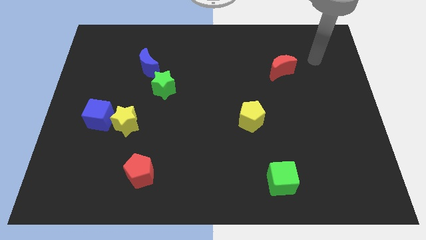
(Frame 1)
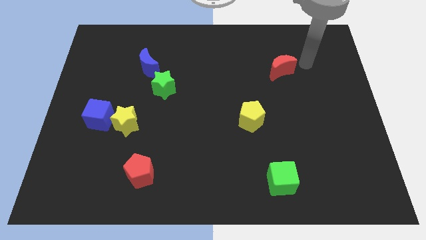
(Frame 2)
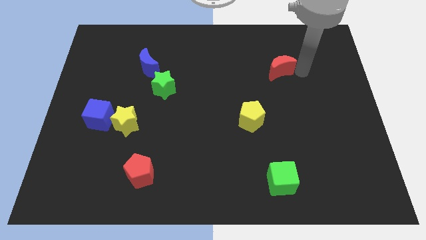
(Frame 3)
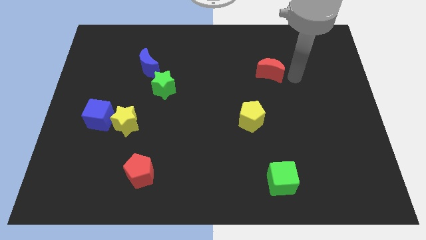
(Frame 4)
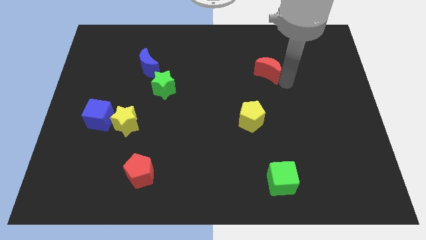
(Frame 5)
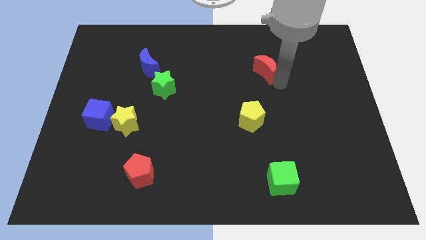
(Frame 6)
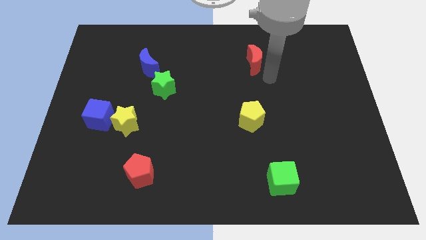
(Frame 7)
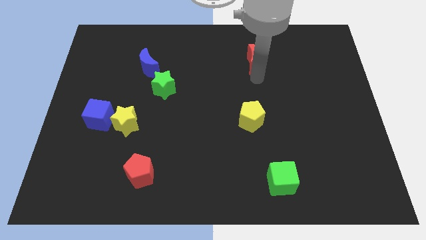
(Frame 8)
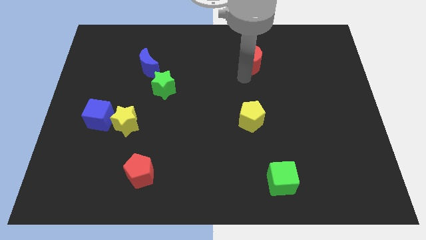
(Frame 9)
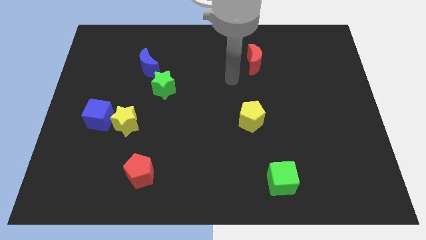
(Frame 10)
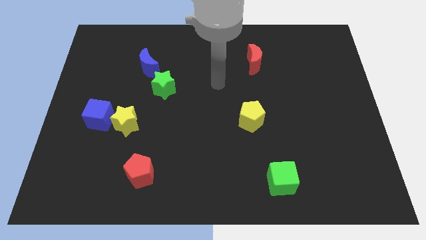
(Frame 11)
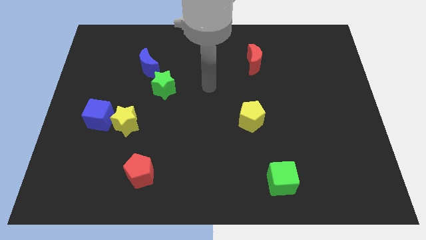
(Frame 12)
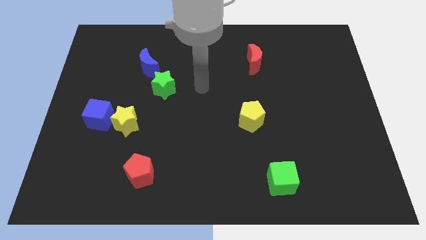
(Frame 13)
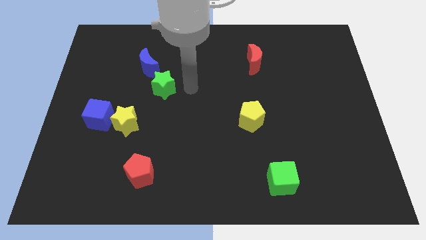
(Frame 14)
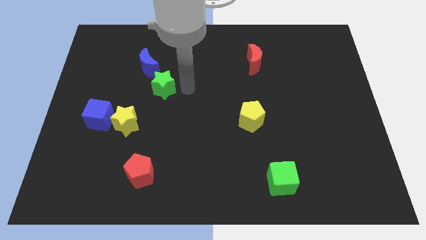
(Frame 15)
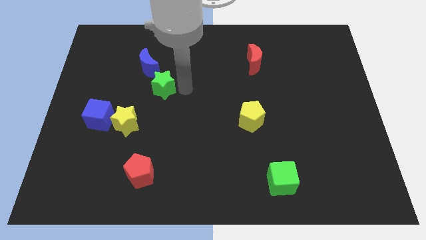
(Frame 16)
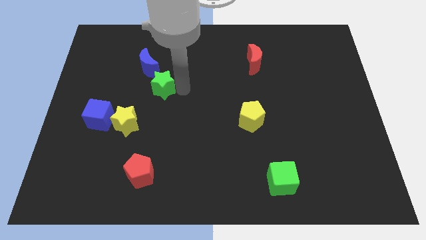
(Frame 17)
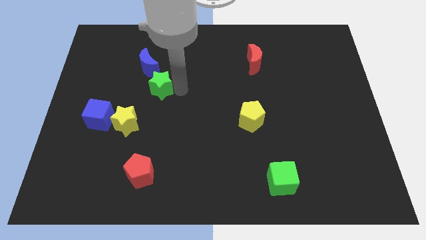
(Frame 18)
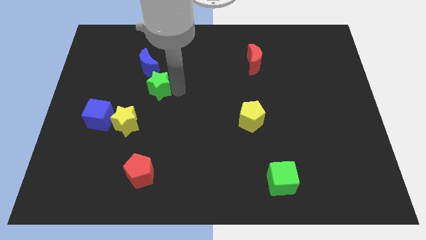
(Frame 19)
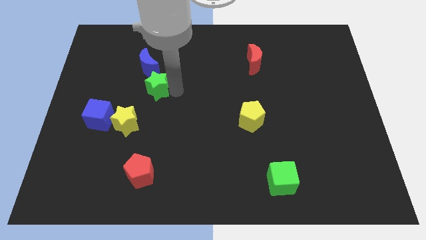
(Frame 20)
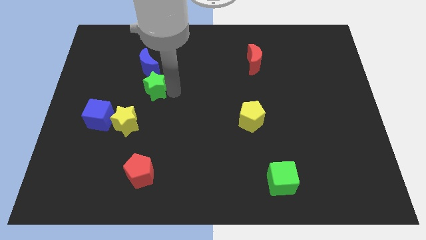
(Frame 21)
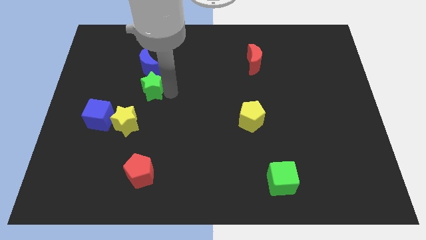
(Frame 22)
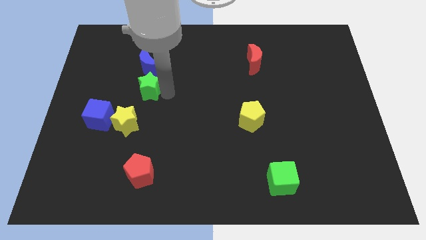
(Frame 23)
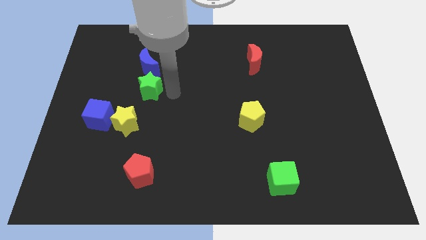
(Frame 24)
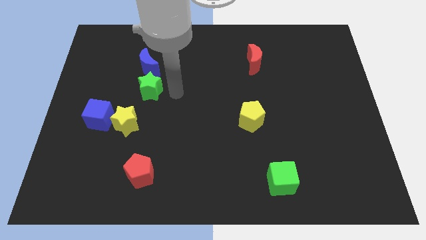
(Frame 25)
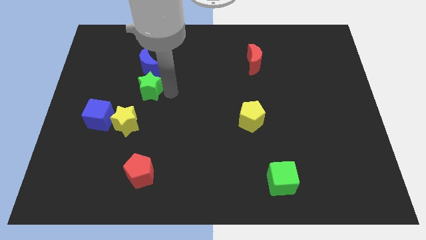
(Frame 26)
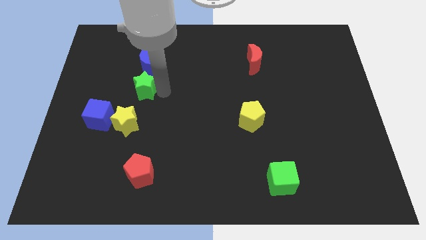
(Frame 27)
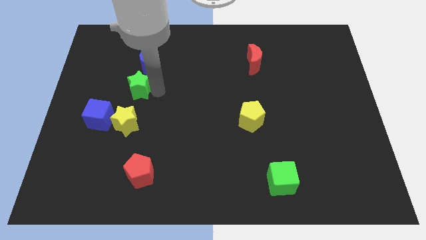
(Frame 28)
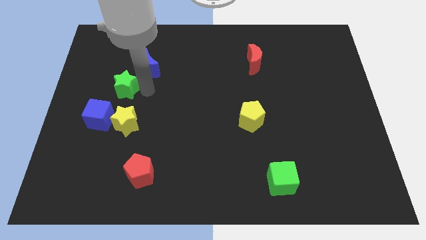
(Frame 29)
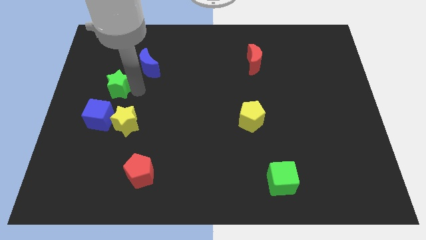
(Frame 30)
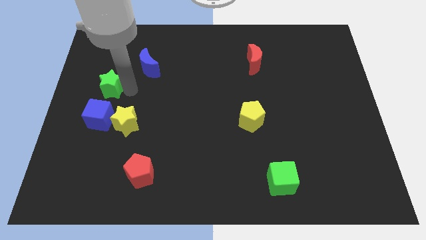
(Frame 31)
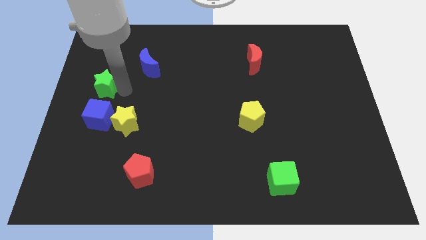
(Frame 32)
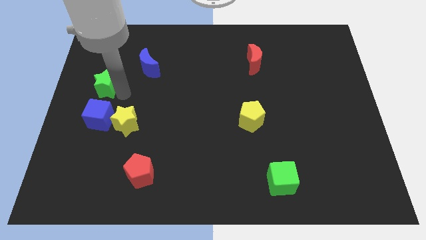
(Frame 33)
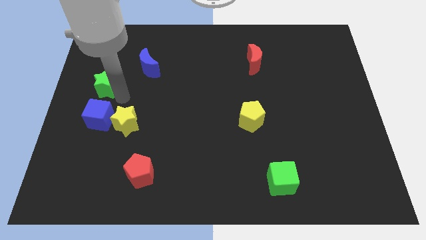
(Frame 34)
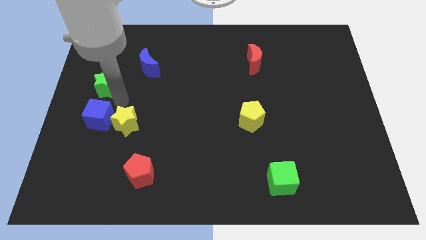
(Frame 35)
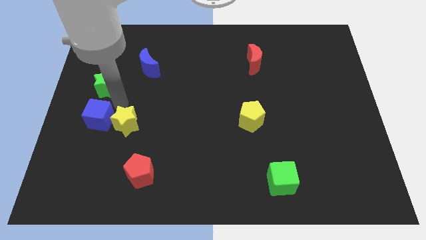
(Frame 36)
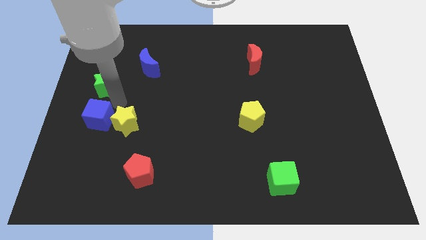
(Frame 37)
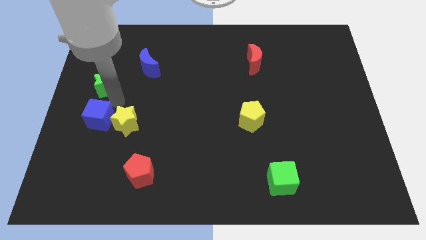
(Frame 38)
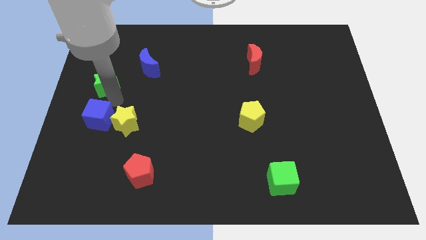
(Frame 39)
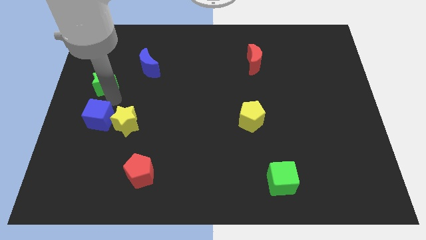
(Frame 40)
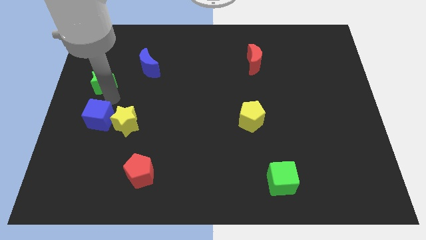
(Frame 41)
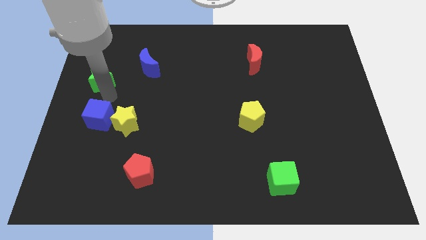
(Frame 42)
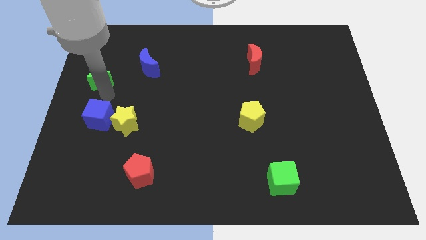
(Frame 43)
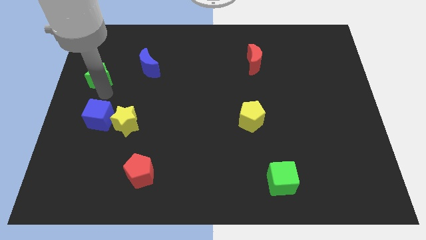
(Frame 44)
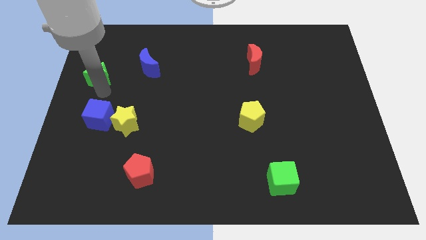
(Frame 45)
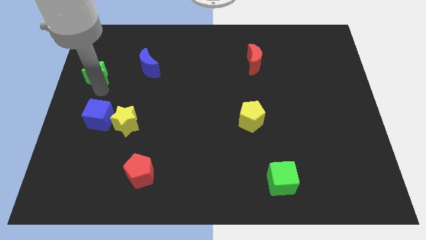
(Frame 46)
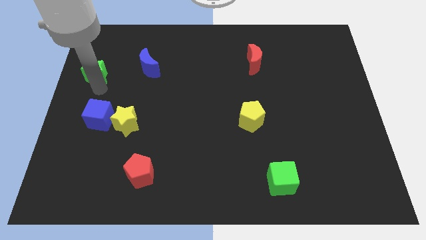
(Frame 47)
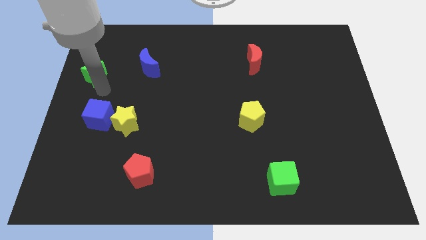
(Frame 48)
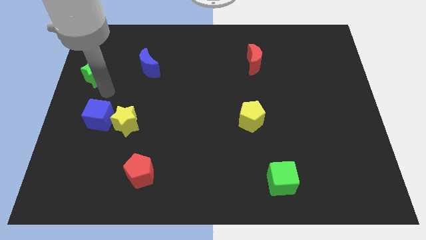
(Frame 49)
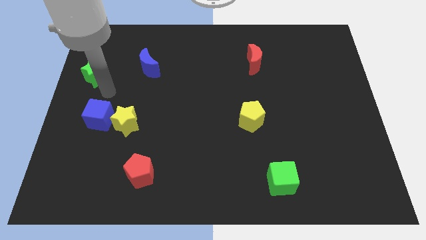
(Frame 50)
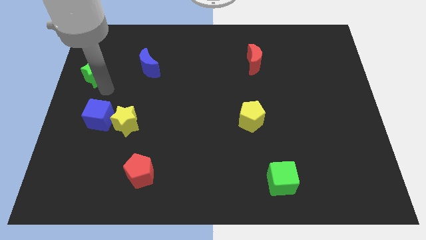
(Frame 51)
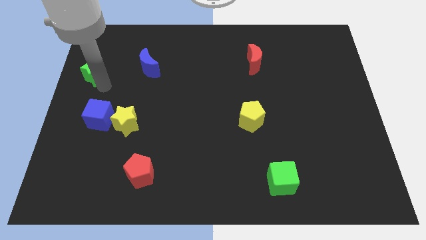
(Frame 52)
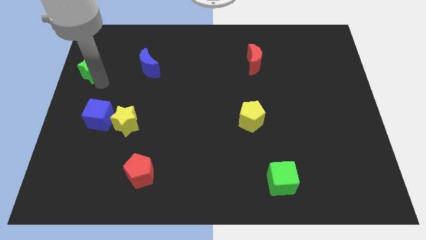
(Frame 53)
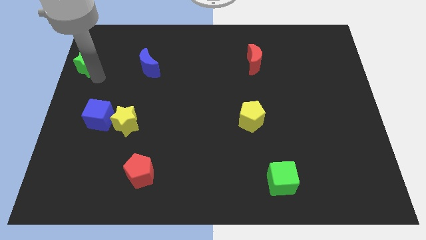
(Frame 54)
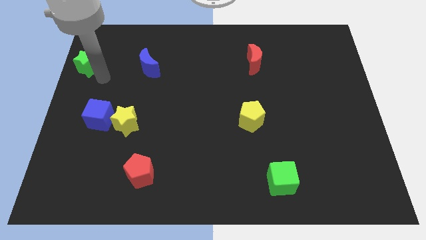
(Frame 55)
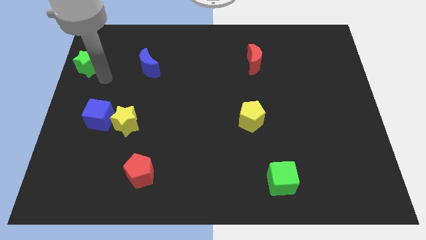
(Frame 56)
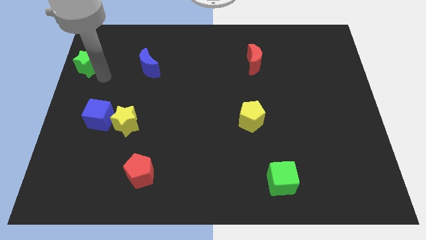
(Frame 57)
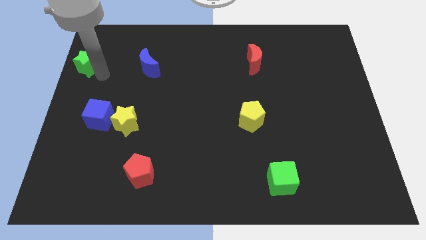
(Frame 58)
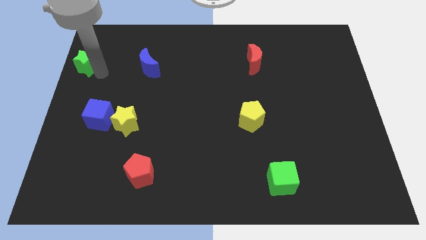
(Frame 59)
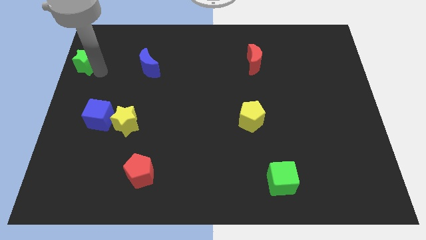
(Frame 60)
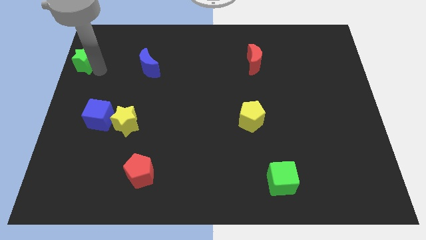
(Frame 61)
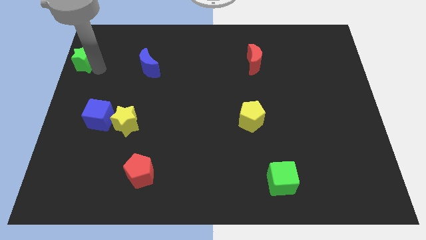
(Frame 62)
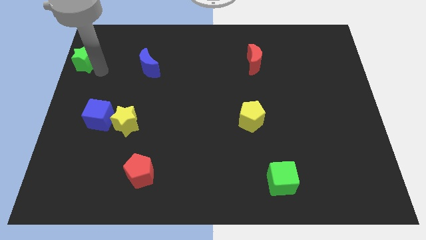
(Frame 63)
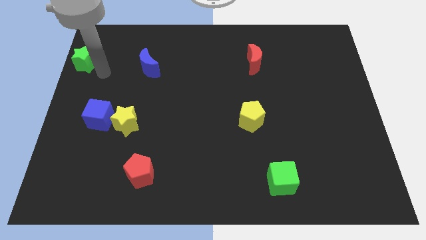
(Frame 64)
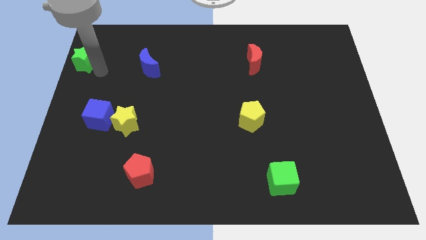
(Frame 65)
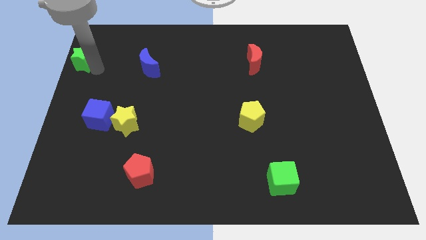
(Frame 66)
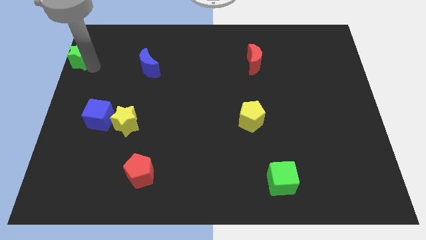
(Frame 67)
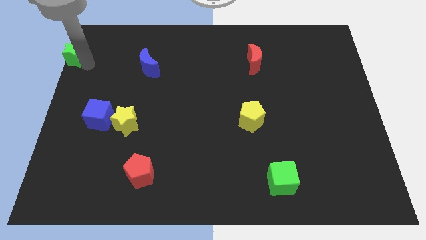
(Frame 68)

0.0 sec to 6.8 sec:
slide the green star to the top left corner
